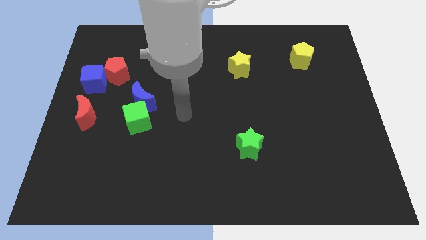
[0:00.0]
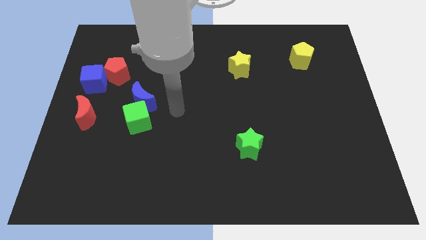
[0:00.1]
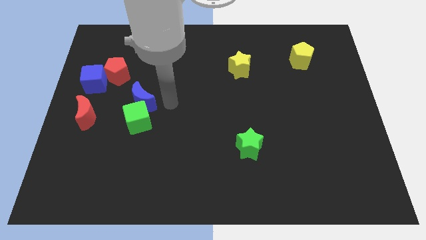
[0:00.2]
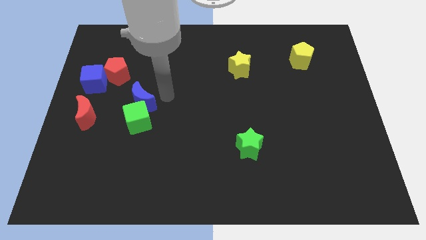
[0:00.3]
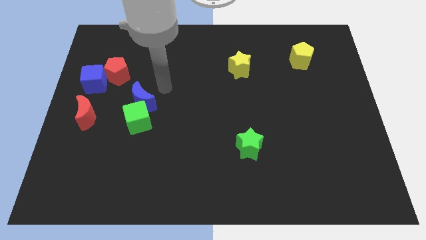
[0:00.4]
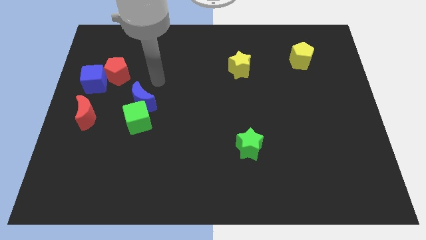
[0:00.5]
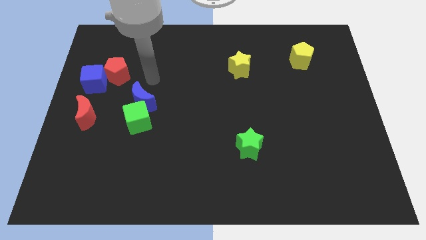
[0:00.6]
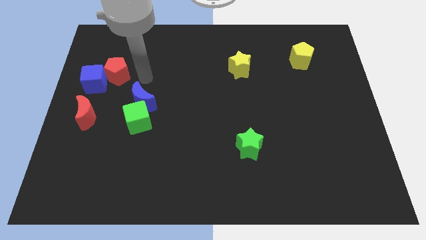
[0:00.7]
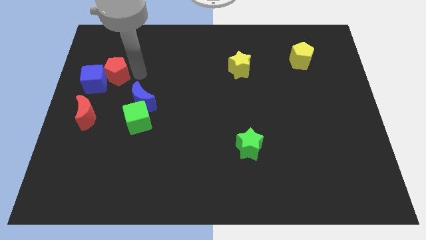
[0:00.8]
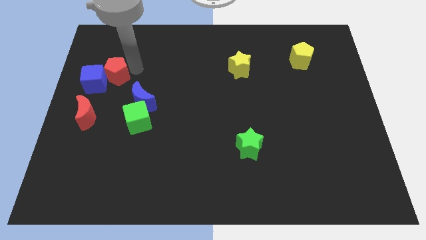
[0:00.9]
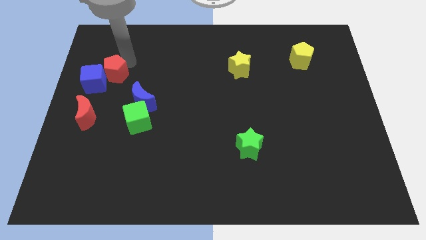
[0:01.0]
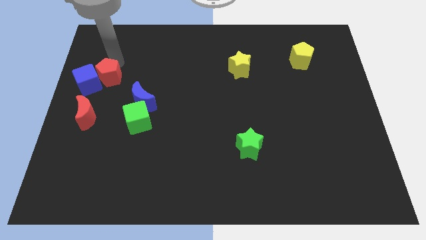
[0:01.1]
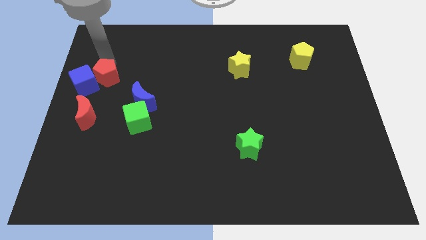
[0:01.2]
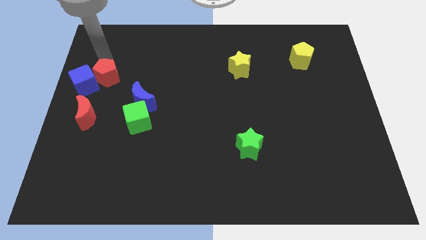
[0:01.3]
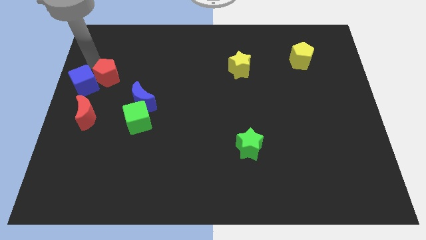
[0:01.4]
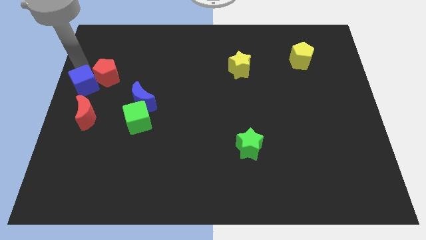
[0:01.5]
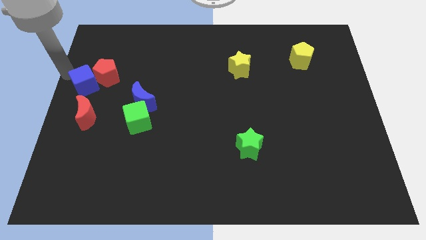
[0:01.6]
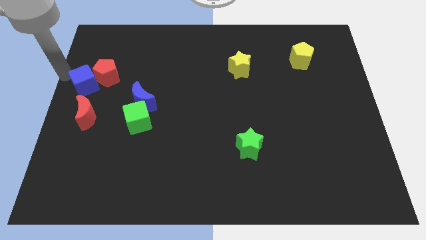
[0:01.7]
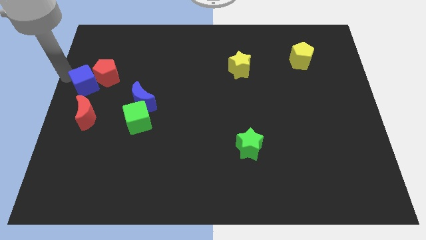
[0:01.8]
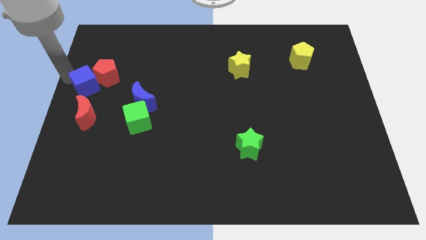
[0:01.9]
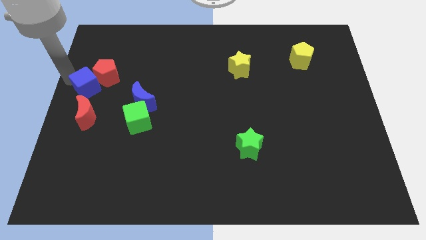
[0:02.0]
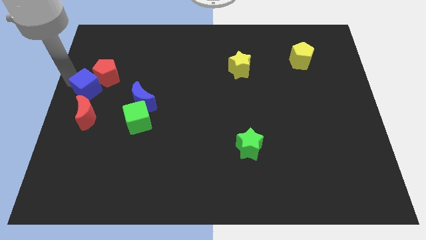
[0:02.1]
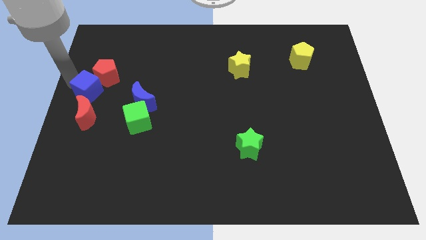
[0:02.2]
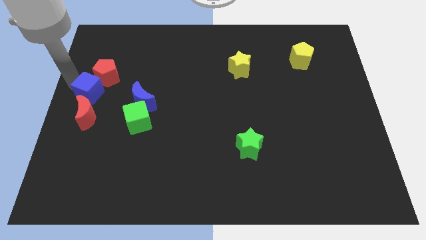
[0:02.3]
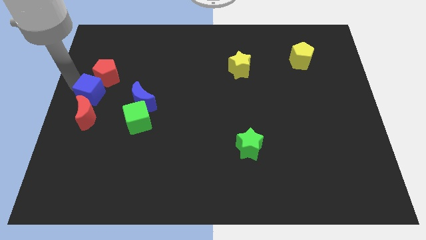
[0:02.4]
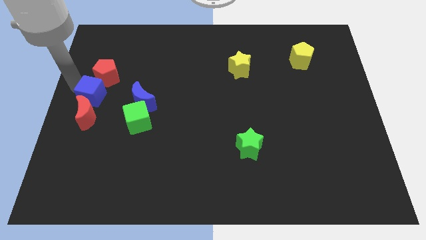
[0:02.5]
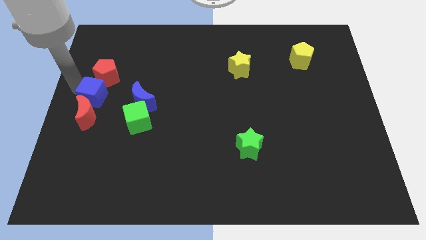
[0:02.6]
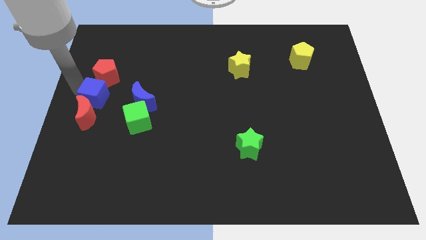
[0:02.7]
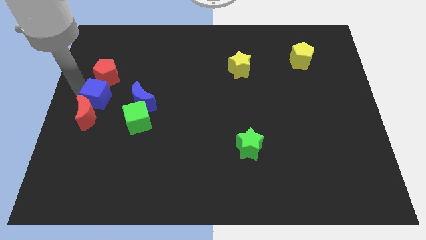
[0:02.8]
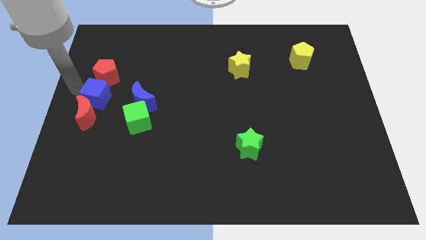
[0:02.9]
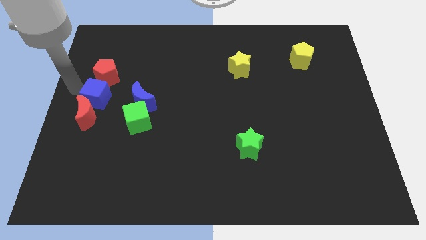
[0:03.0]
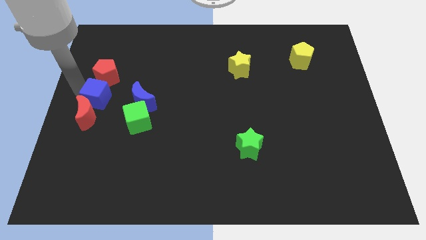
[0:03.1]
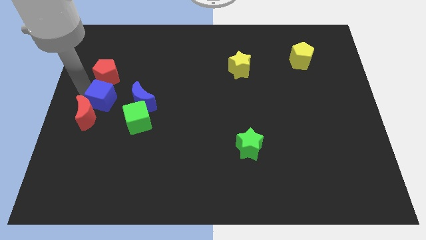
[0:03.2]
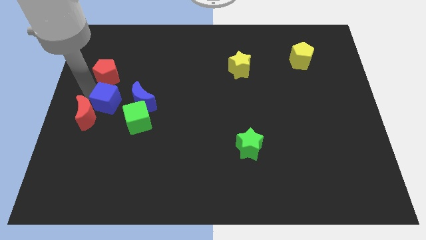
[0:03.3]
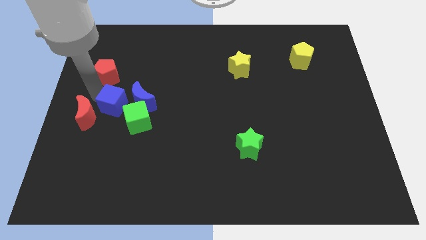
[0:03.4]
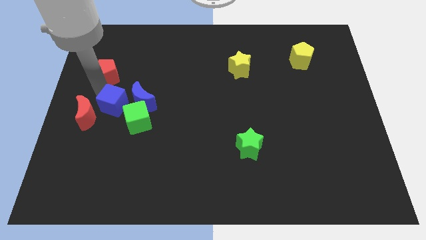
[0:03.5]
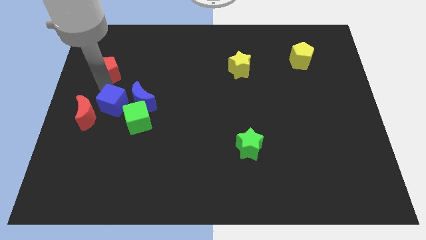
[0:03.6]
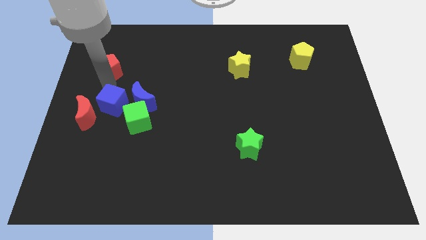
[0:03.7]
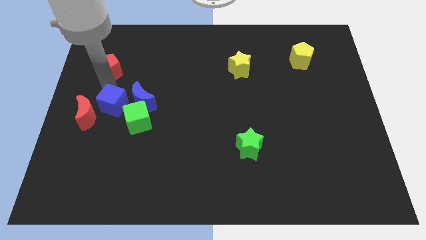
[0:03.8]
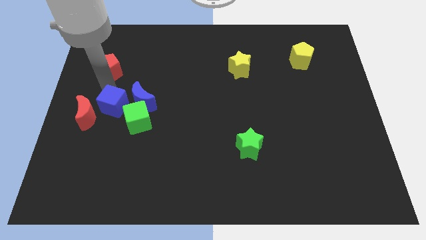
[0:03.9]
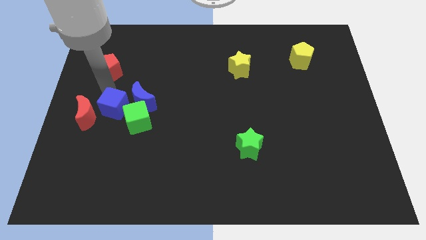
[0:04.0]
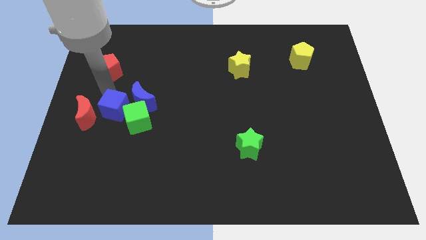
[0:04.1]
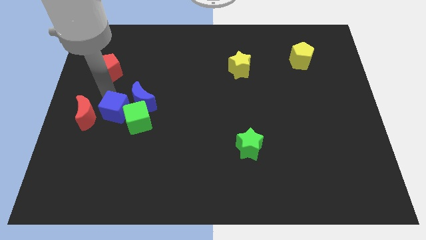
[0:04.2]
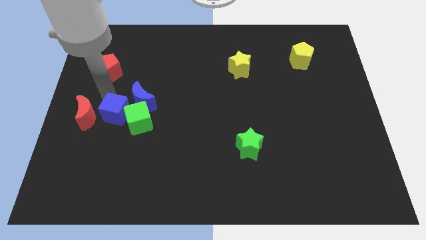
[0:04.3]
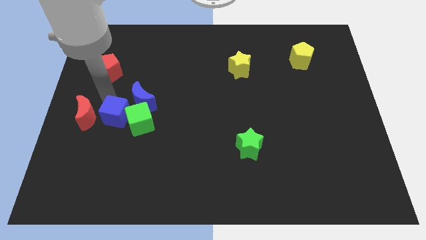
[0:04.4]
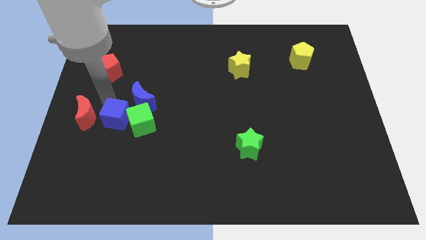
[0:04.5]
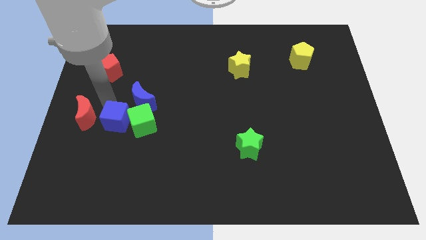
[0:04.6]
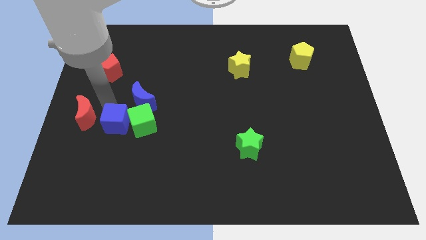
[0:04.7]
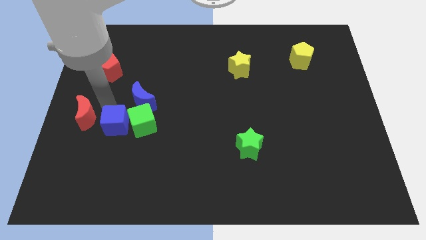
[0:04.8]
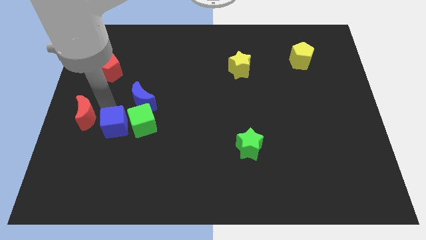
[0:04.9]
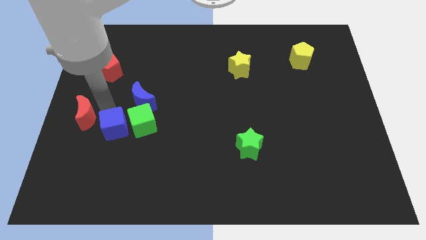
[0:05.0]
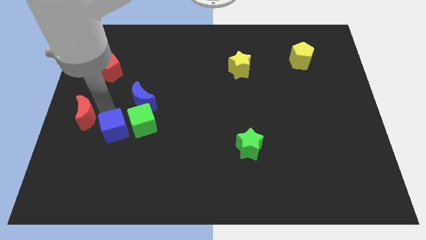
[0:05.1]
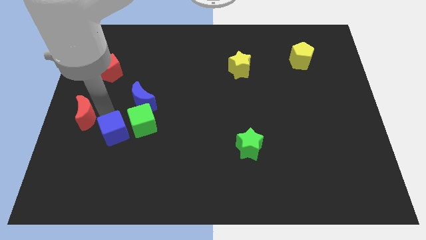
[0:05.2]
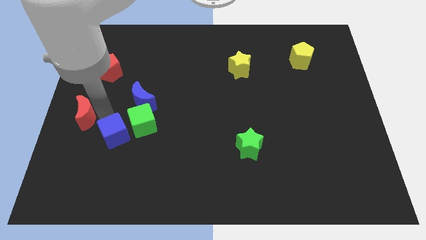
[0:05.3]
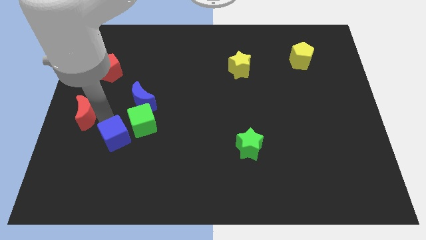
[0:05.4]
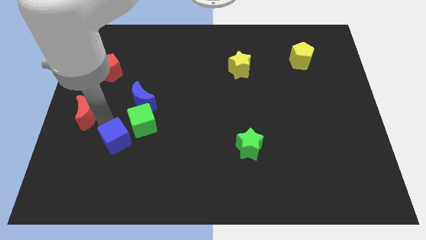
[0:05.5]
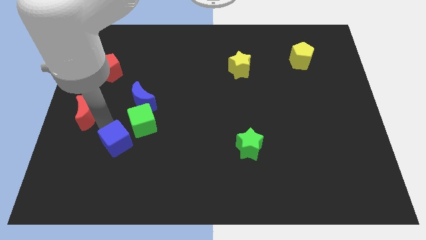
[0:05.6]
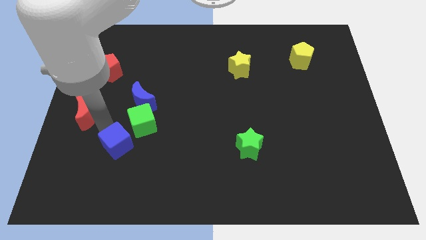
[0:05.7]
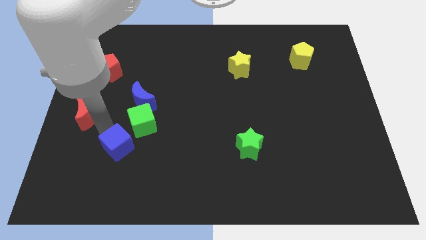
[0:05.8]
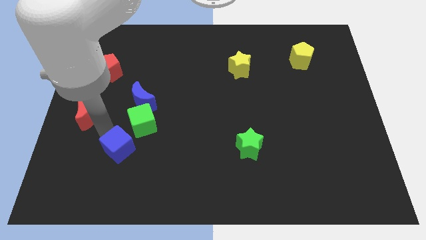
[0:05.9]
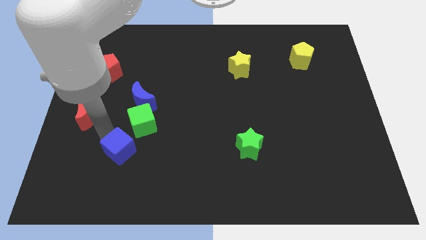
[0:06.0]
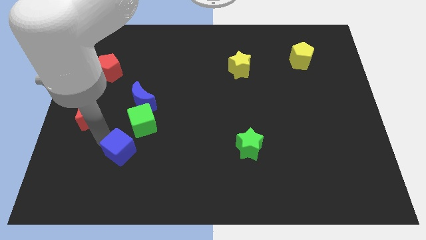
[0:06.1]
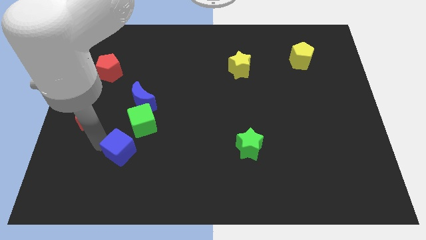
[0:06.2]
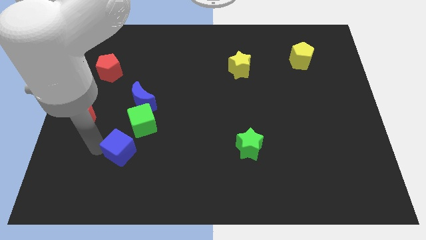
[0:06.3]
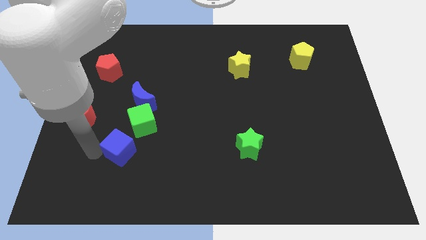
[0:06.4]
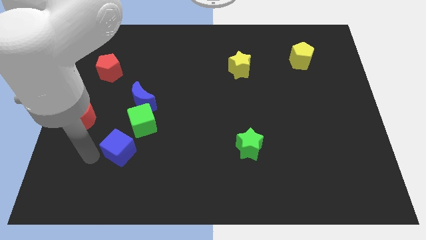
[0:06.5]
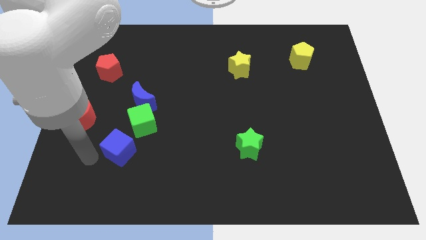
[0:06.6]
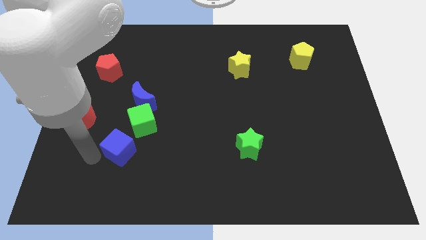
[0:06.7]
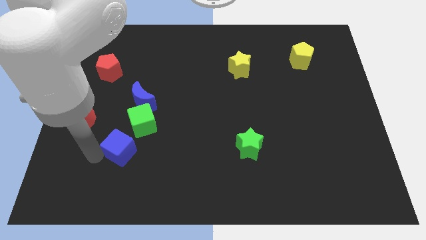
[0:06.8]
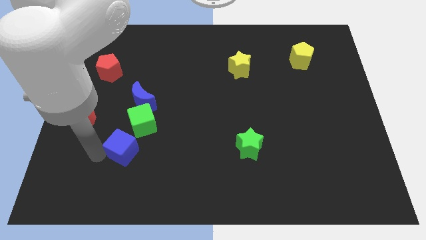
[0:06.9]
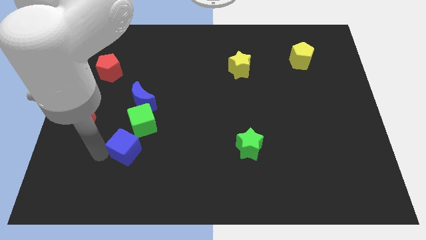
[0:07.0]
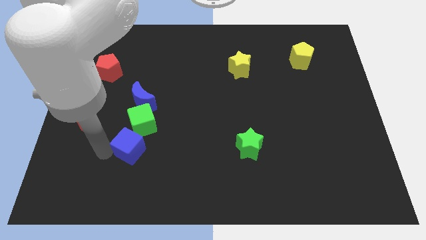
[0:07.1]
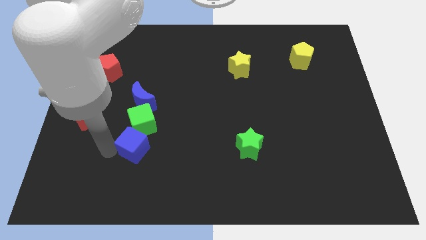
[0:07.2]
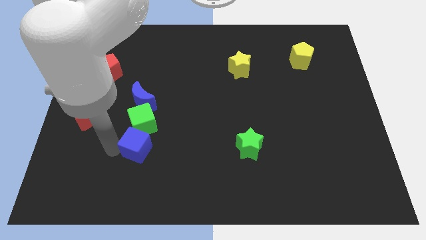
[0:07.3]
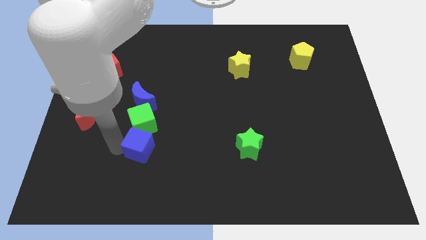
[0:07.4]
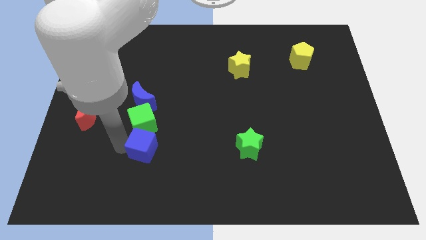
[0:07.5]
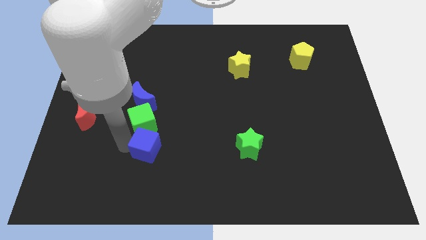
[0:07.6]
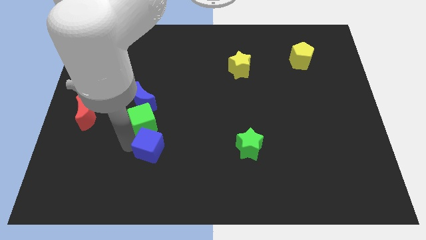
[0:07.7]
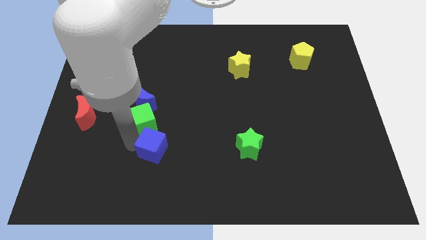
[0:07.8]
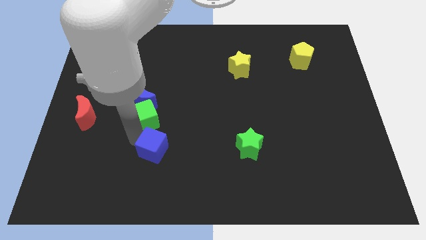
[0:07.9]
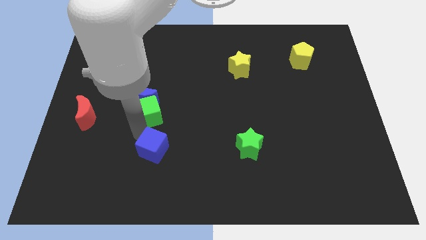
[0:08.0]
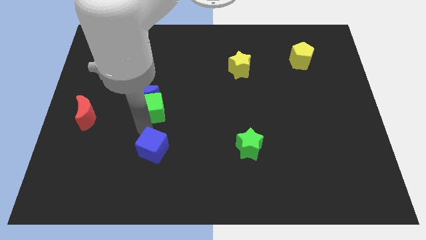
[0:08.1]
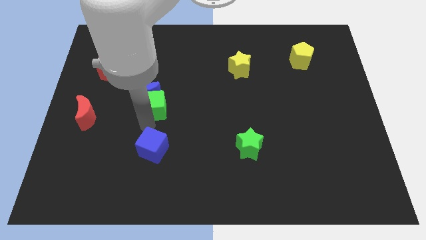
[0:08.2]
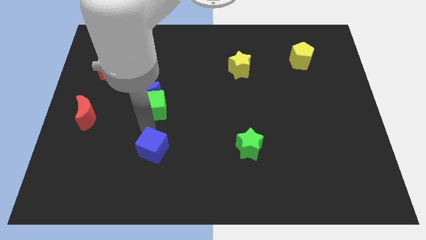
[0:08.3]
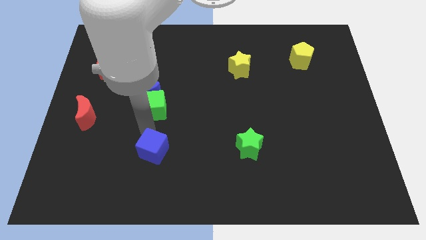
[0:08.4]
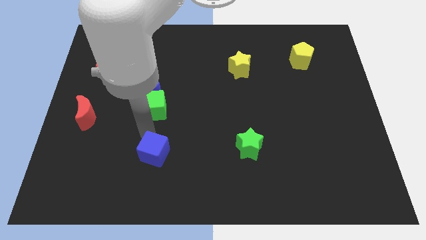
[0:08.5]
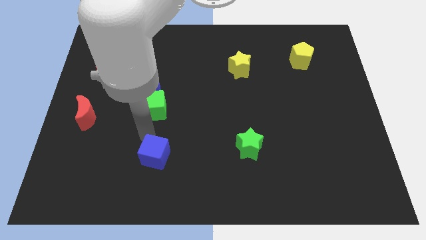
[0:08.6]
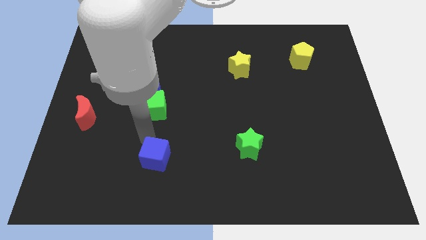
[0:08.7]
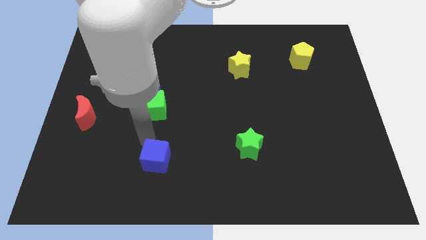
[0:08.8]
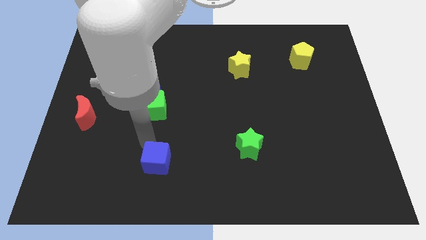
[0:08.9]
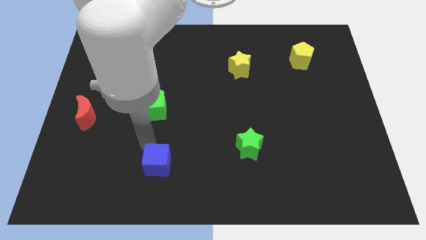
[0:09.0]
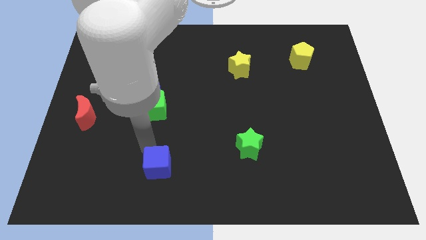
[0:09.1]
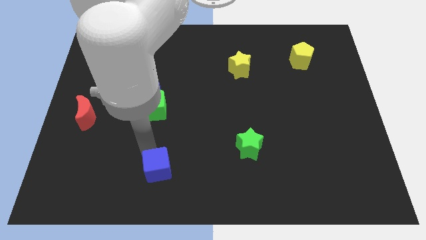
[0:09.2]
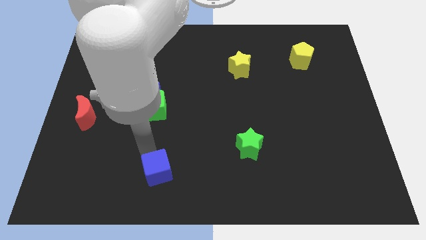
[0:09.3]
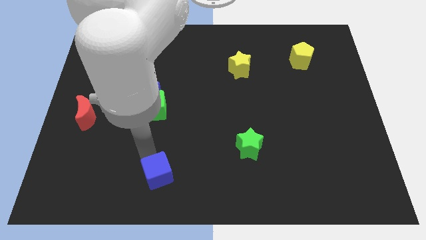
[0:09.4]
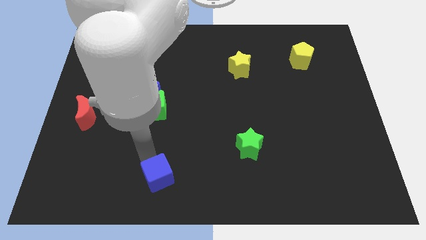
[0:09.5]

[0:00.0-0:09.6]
put the blue cube to the bottom
